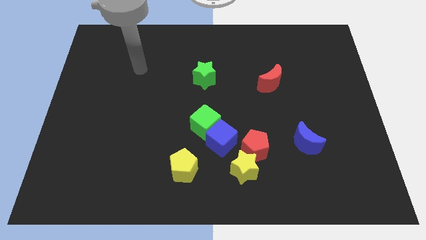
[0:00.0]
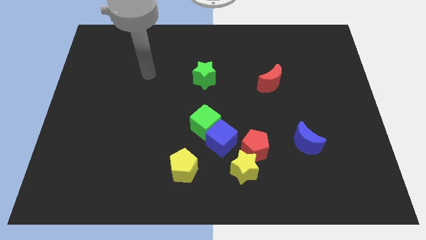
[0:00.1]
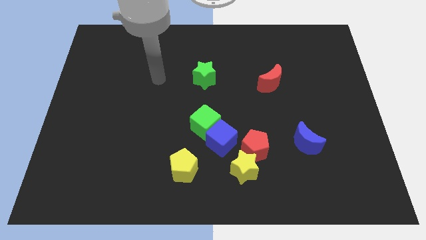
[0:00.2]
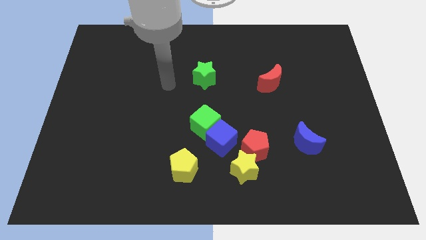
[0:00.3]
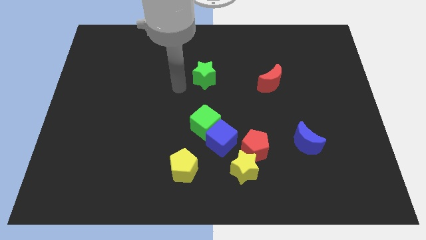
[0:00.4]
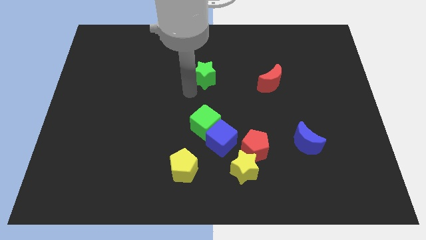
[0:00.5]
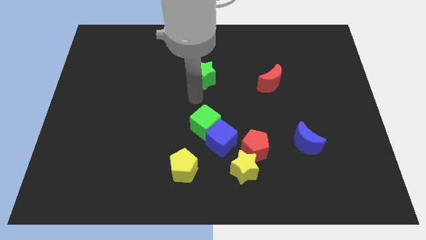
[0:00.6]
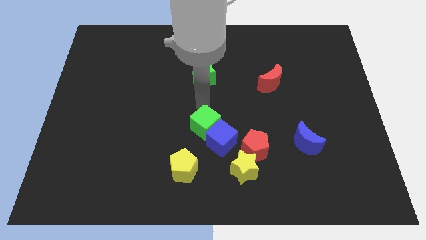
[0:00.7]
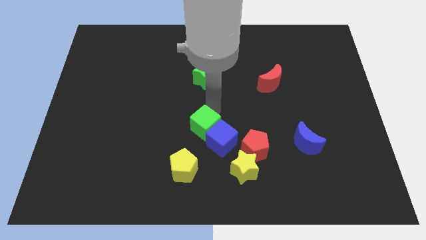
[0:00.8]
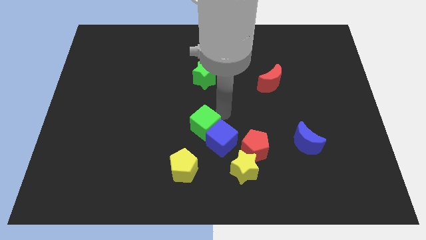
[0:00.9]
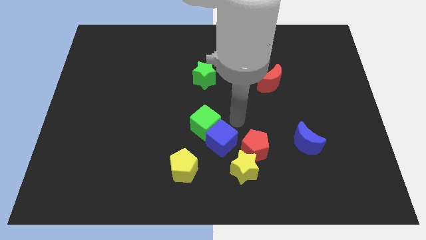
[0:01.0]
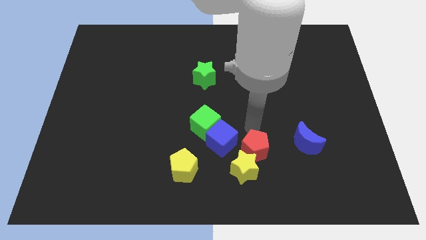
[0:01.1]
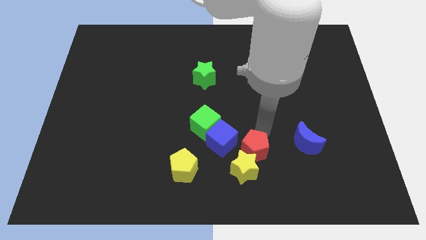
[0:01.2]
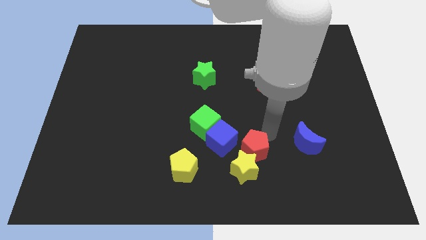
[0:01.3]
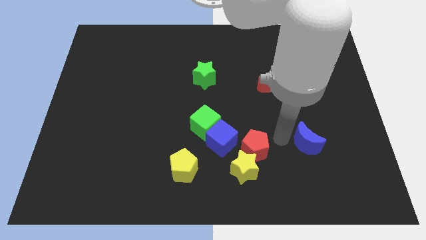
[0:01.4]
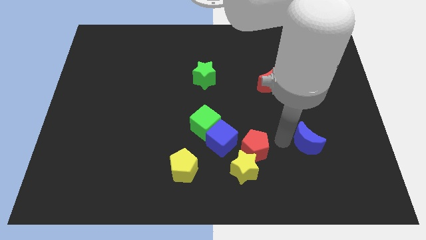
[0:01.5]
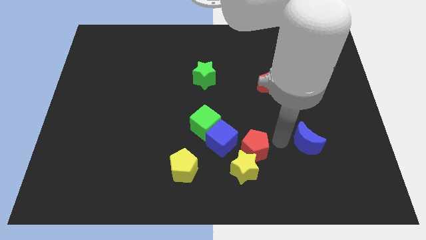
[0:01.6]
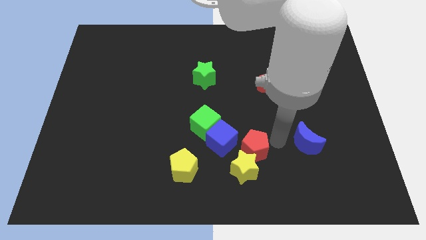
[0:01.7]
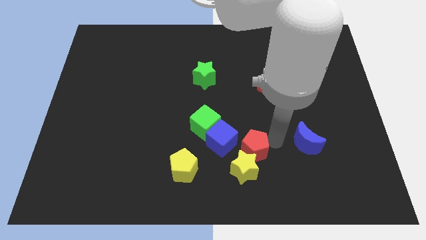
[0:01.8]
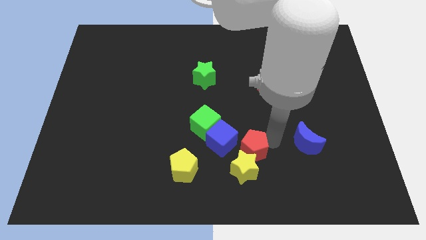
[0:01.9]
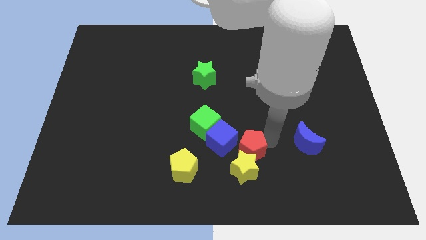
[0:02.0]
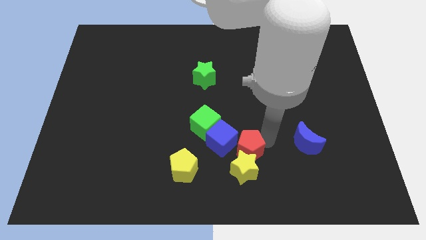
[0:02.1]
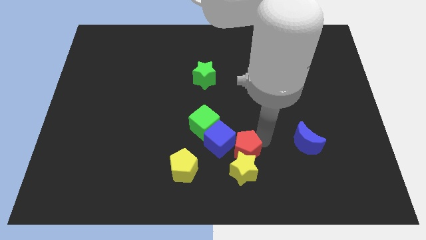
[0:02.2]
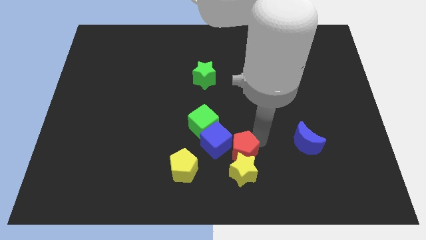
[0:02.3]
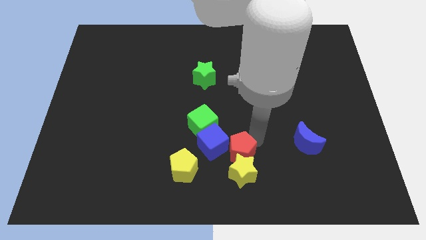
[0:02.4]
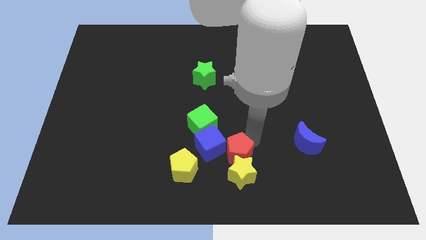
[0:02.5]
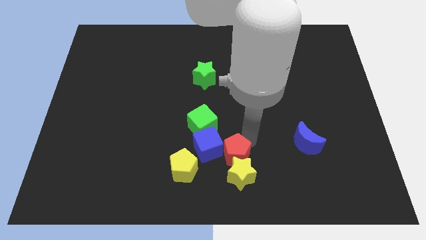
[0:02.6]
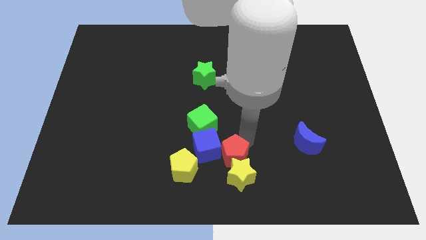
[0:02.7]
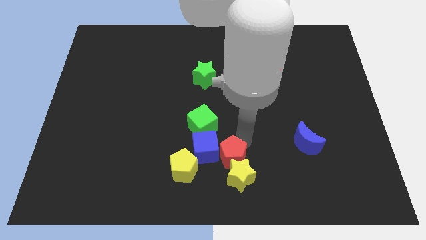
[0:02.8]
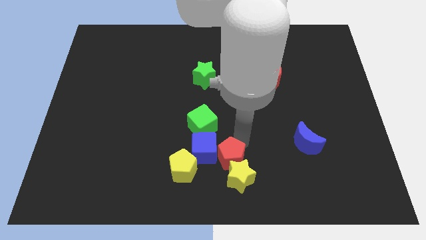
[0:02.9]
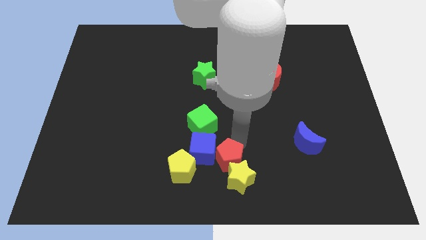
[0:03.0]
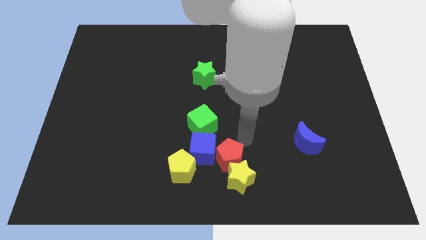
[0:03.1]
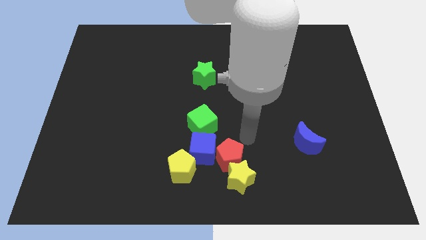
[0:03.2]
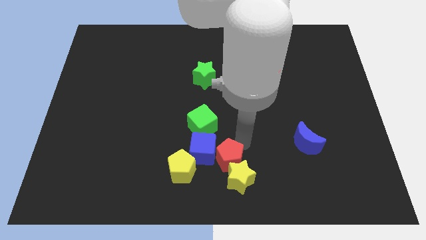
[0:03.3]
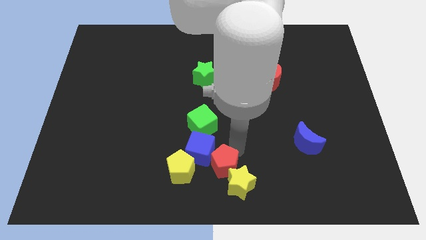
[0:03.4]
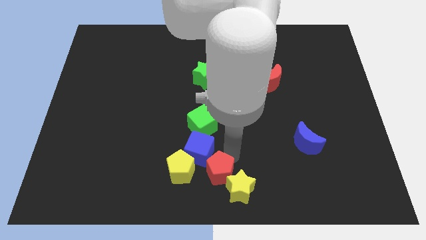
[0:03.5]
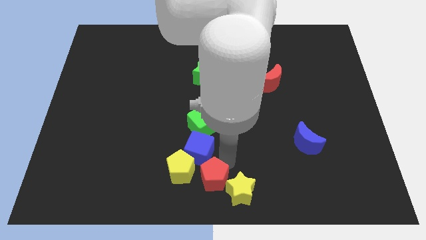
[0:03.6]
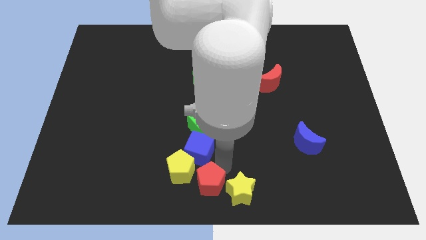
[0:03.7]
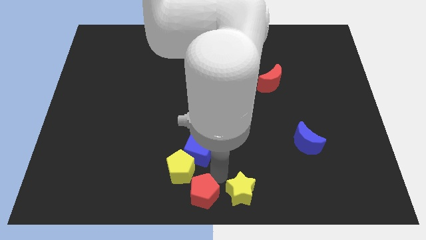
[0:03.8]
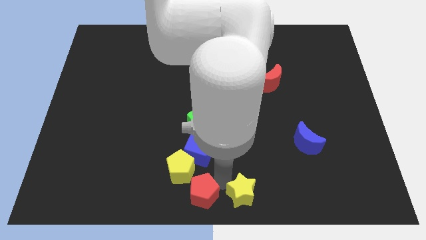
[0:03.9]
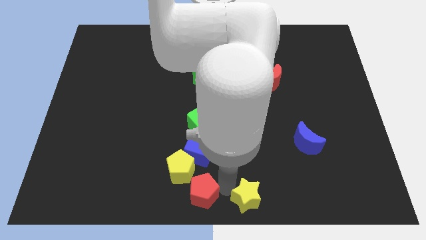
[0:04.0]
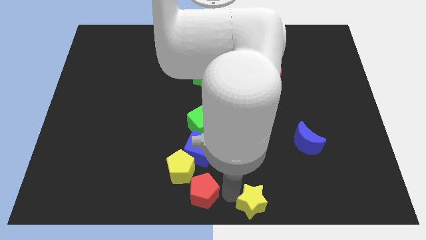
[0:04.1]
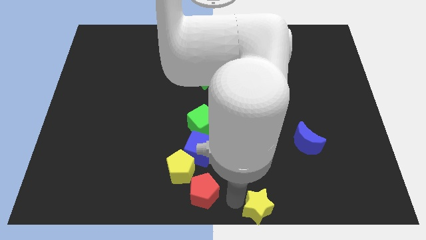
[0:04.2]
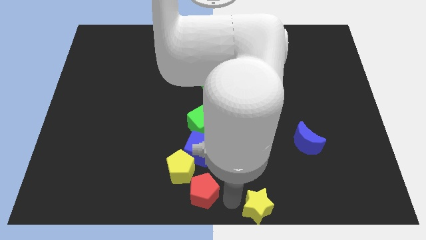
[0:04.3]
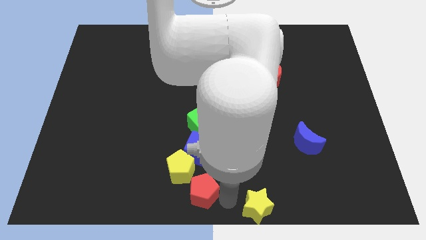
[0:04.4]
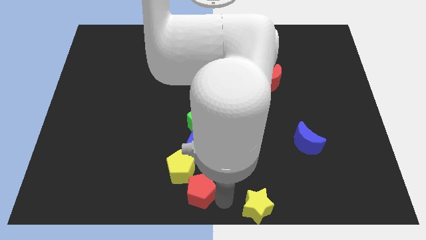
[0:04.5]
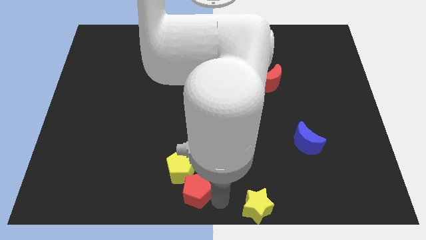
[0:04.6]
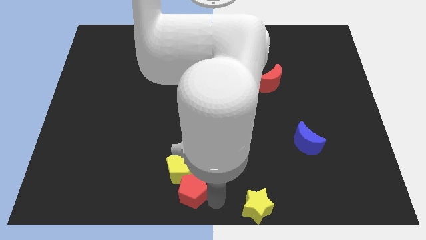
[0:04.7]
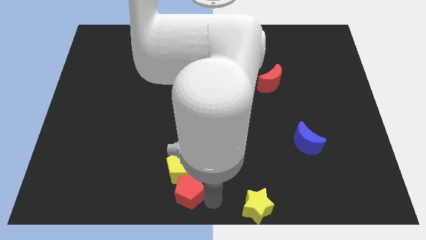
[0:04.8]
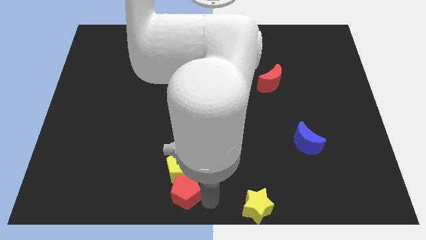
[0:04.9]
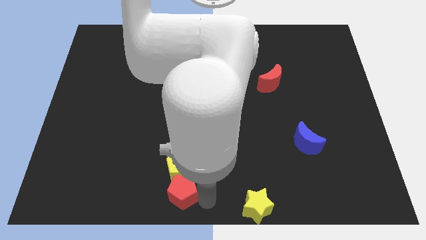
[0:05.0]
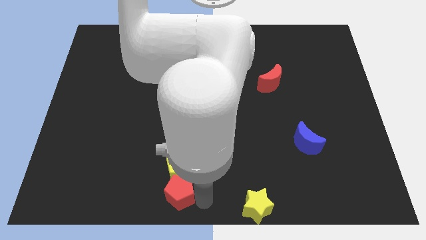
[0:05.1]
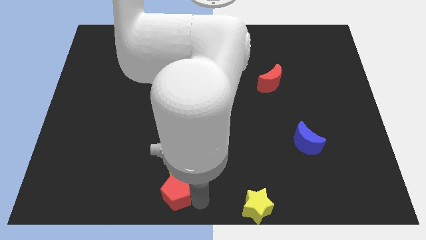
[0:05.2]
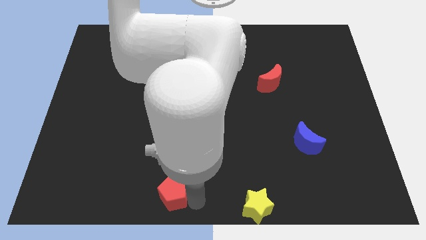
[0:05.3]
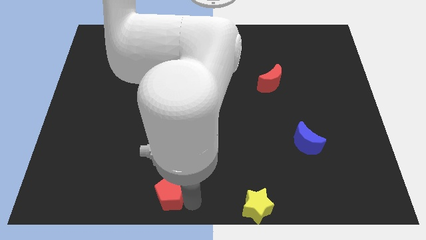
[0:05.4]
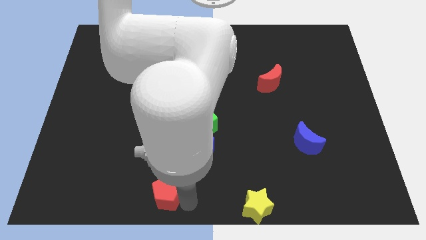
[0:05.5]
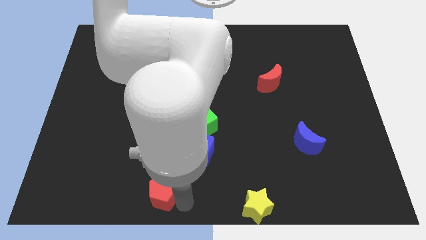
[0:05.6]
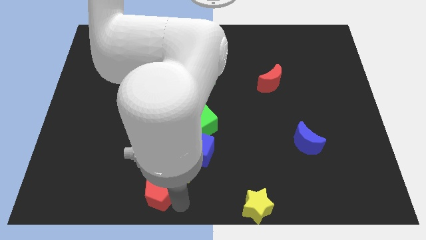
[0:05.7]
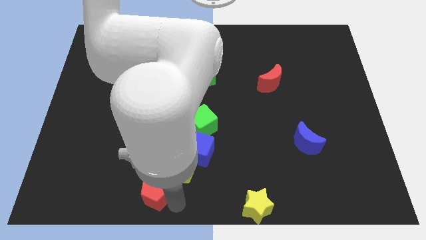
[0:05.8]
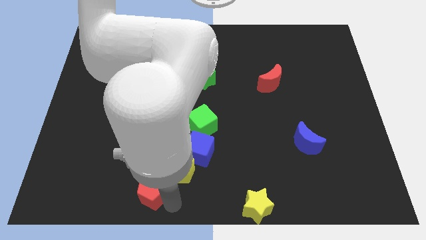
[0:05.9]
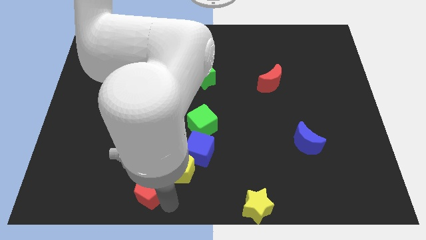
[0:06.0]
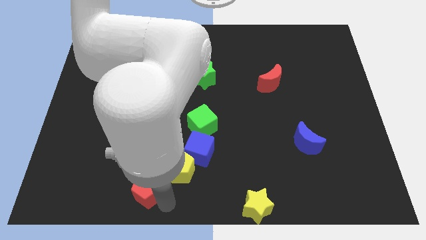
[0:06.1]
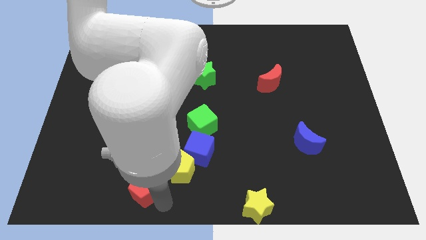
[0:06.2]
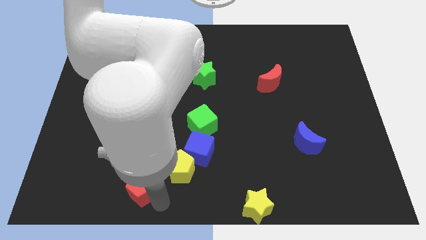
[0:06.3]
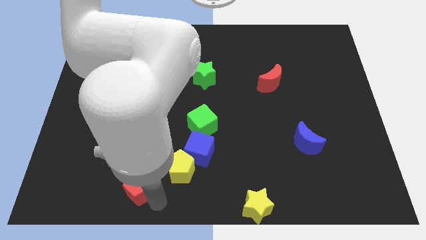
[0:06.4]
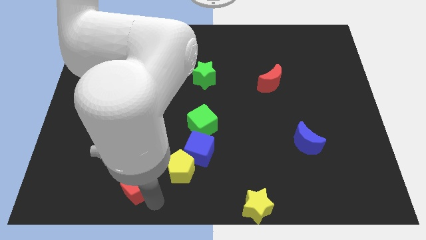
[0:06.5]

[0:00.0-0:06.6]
push the red pentagon to the left

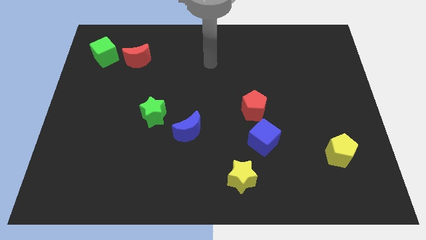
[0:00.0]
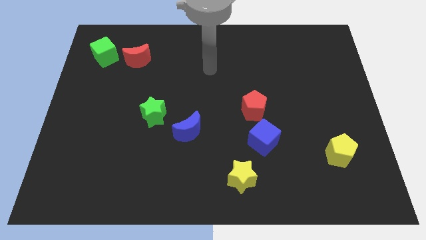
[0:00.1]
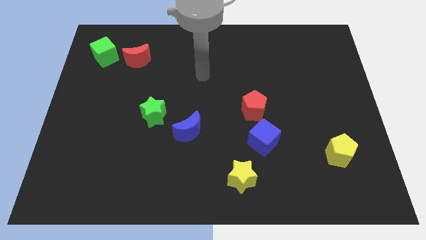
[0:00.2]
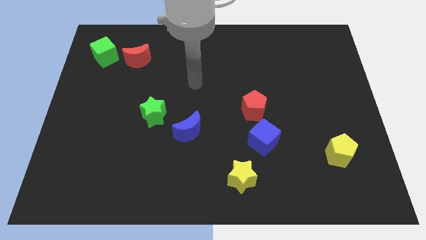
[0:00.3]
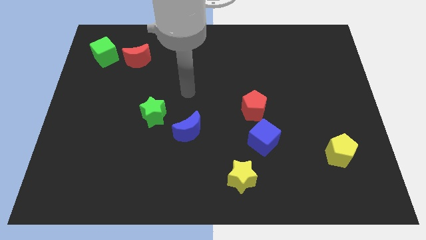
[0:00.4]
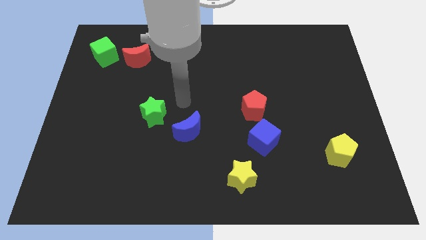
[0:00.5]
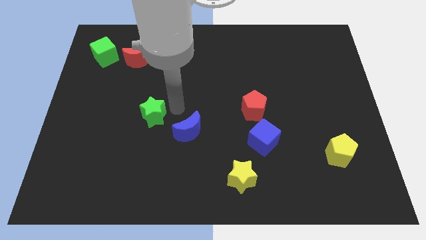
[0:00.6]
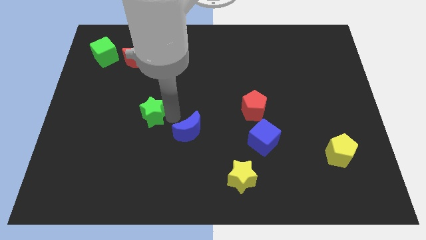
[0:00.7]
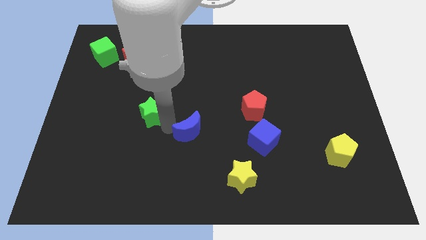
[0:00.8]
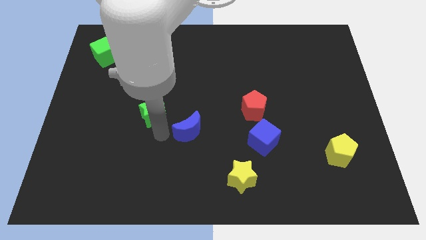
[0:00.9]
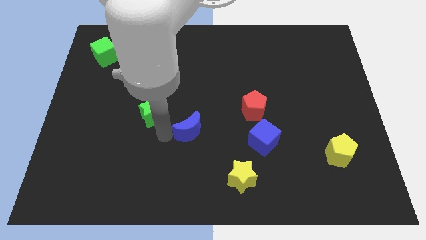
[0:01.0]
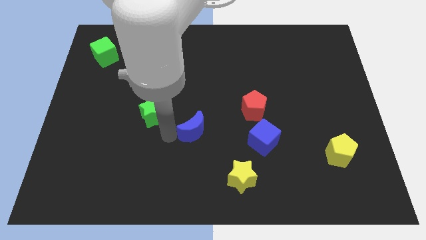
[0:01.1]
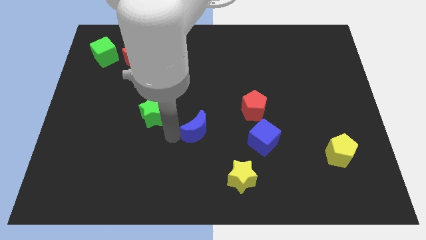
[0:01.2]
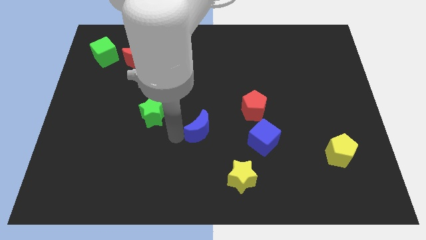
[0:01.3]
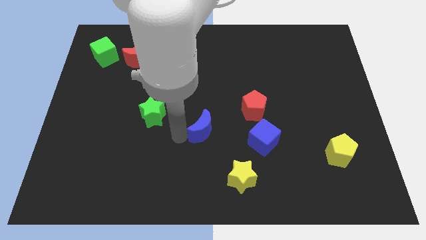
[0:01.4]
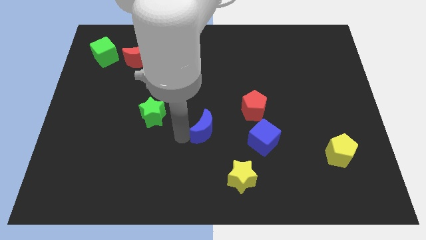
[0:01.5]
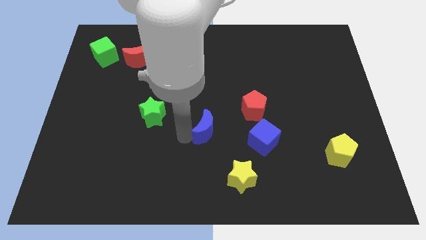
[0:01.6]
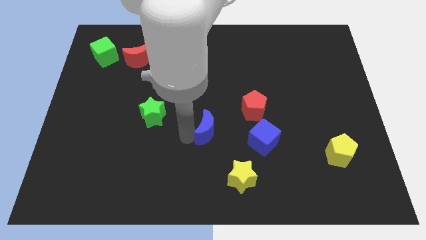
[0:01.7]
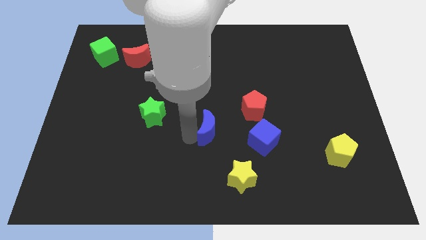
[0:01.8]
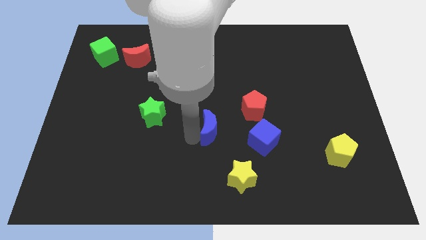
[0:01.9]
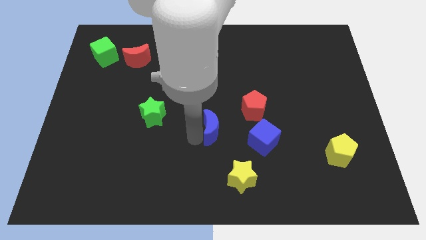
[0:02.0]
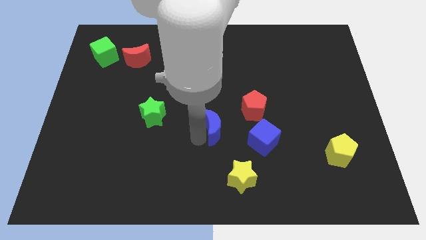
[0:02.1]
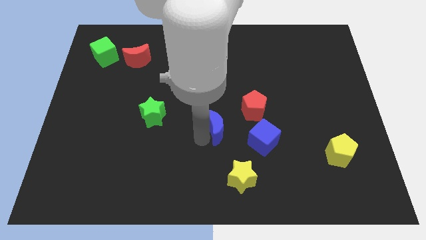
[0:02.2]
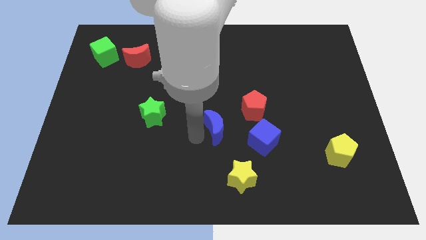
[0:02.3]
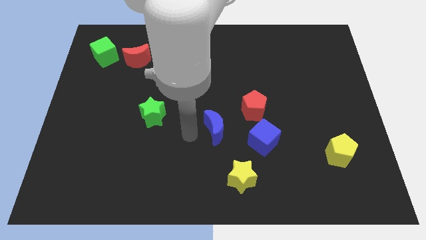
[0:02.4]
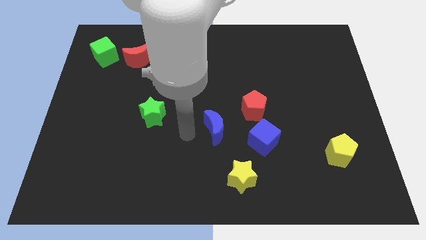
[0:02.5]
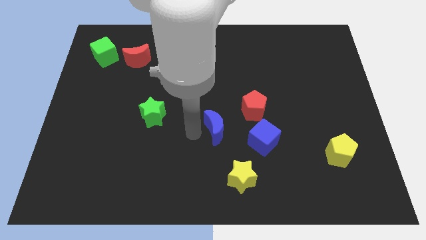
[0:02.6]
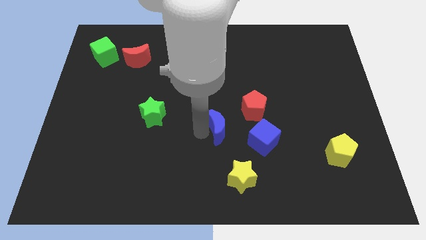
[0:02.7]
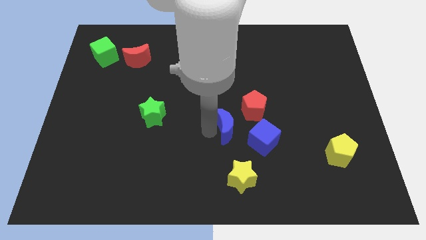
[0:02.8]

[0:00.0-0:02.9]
slide the blue moon a little bit right
